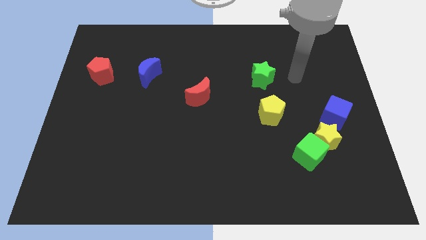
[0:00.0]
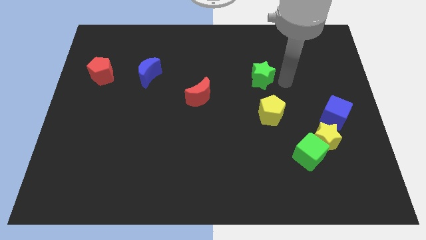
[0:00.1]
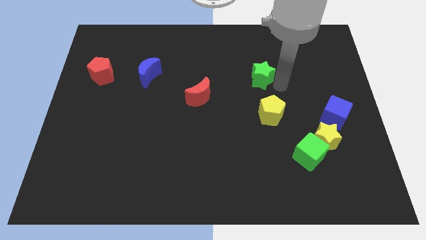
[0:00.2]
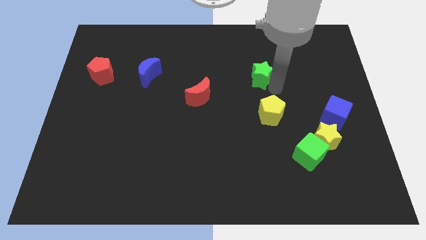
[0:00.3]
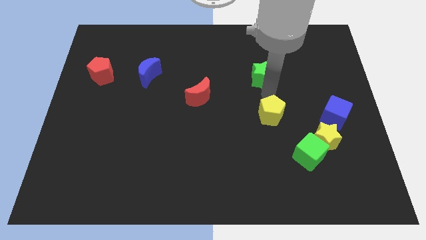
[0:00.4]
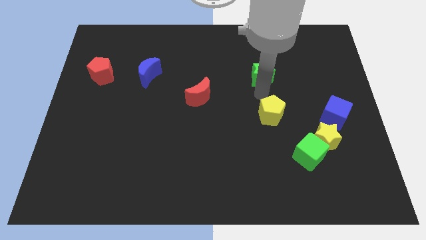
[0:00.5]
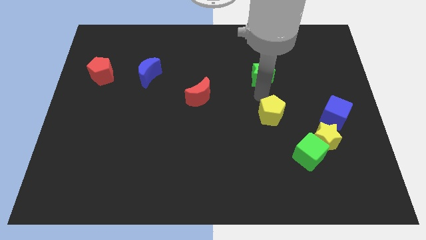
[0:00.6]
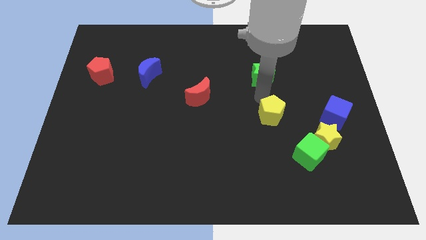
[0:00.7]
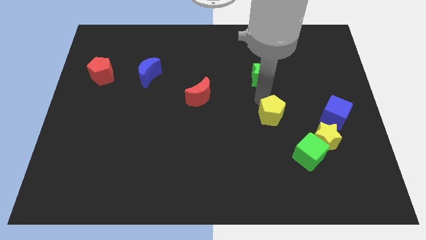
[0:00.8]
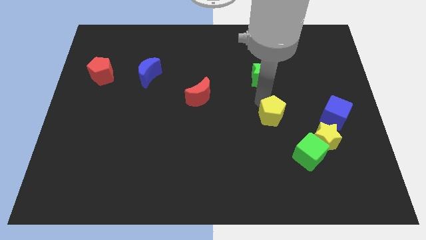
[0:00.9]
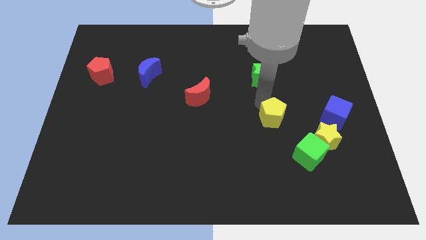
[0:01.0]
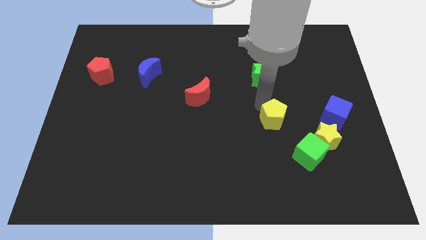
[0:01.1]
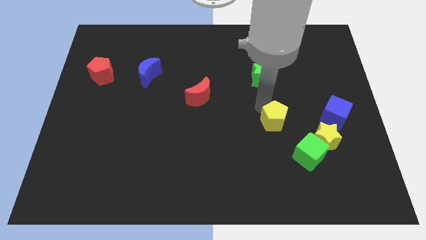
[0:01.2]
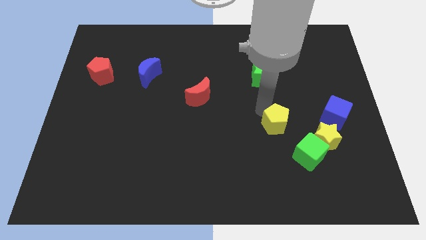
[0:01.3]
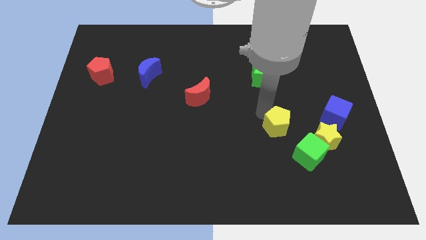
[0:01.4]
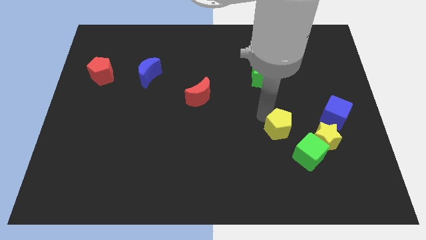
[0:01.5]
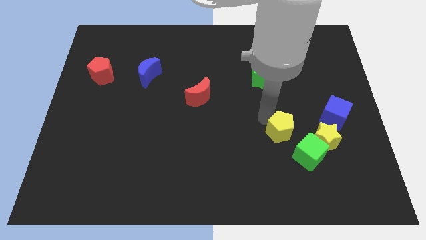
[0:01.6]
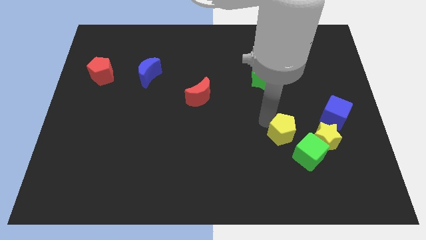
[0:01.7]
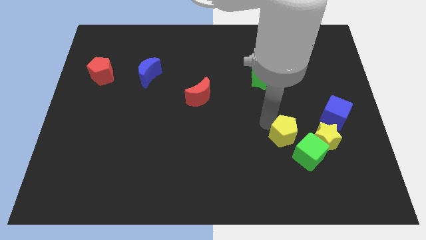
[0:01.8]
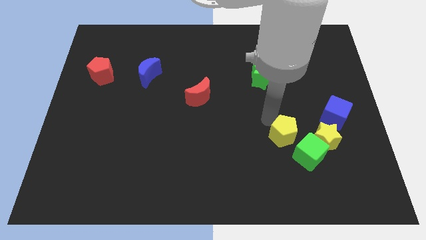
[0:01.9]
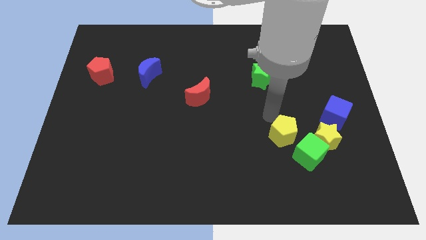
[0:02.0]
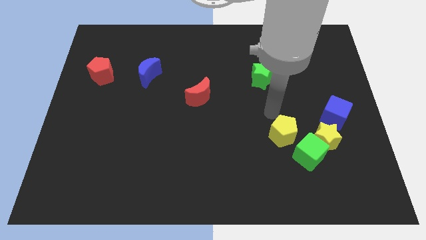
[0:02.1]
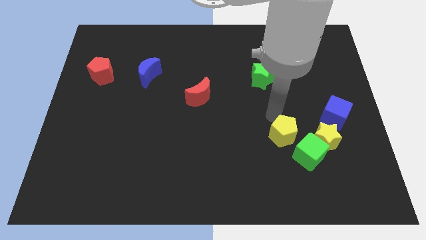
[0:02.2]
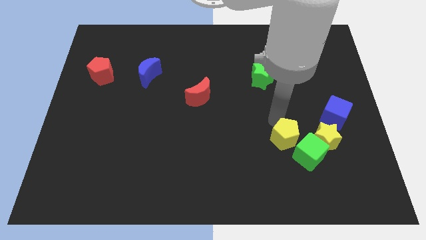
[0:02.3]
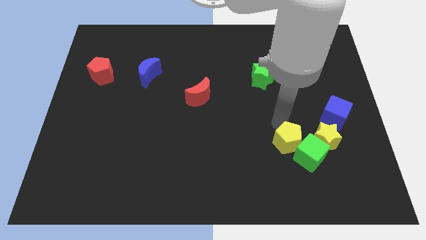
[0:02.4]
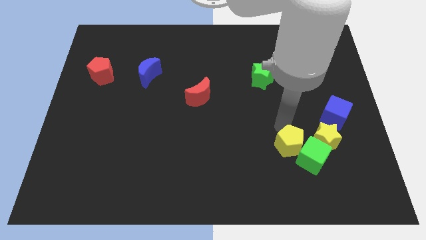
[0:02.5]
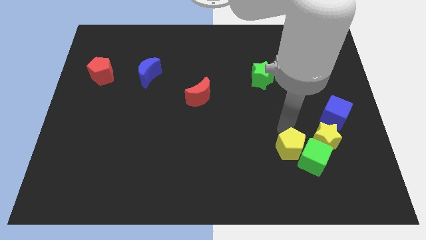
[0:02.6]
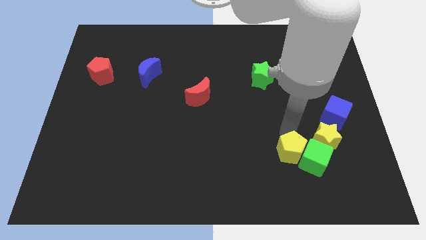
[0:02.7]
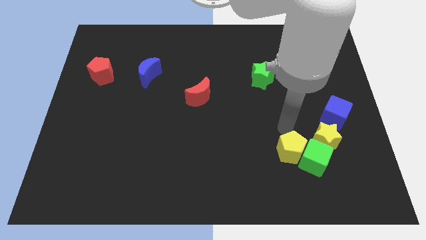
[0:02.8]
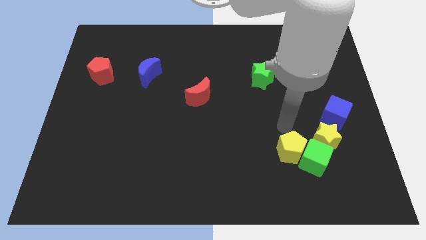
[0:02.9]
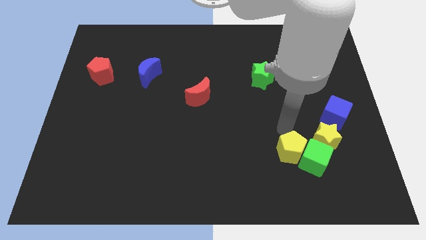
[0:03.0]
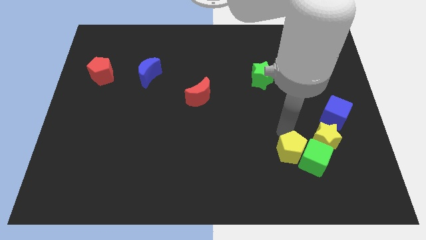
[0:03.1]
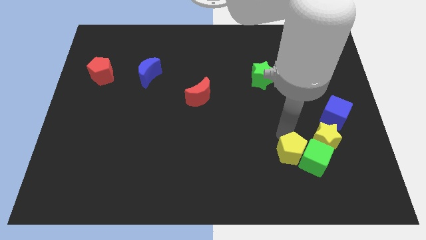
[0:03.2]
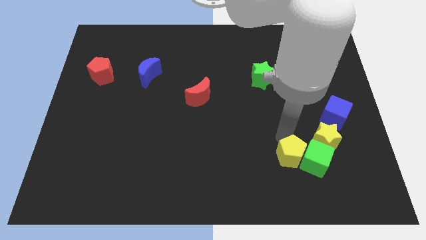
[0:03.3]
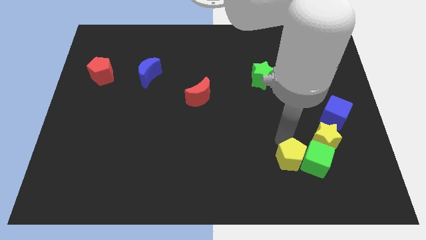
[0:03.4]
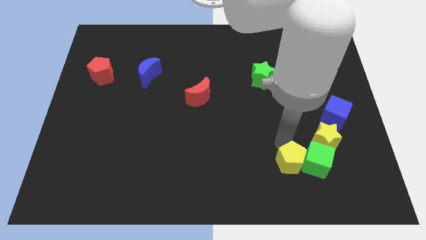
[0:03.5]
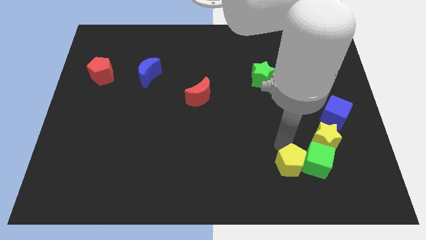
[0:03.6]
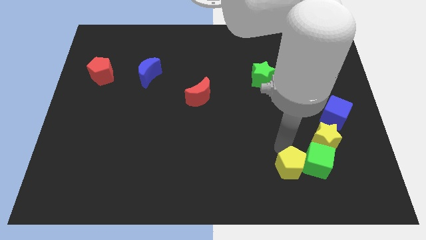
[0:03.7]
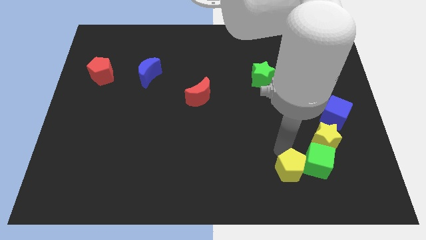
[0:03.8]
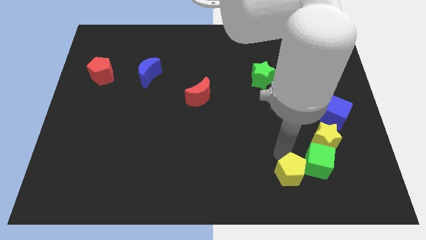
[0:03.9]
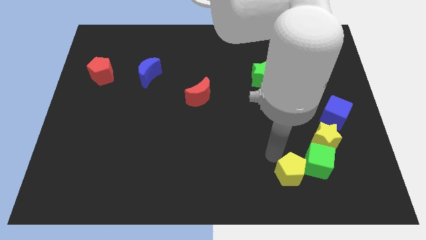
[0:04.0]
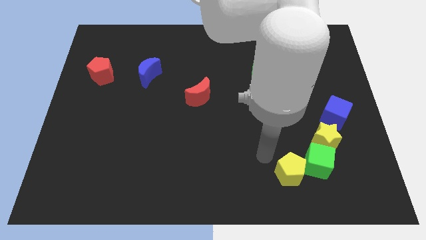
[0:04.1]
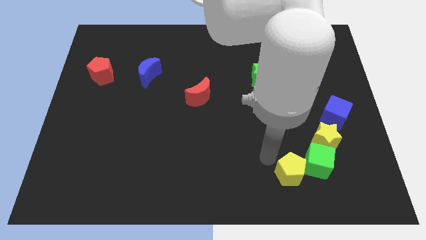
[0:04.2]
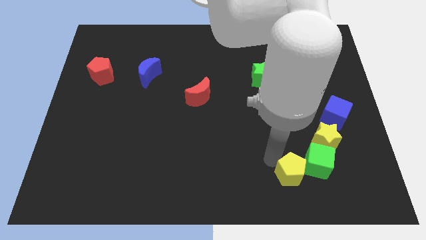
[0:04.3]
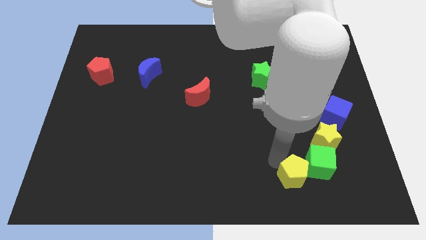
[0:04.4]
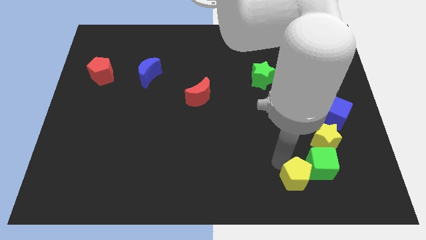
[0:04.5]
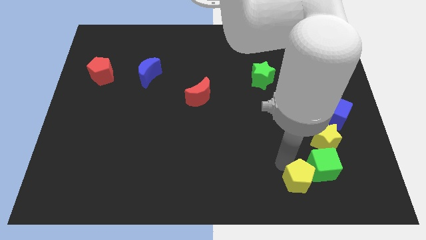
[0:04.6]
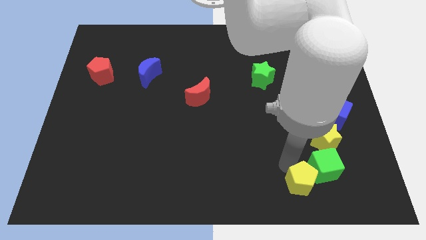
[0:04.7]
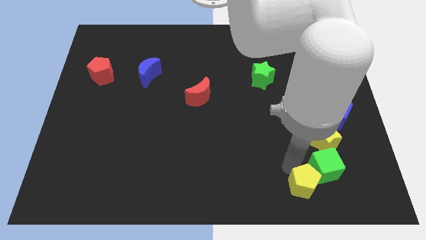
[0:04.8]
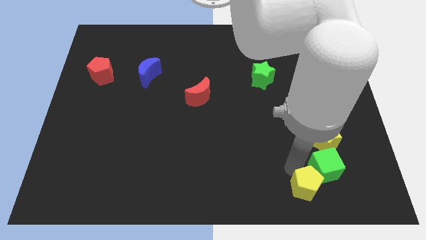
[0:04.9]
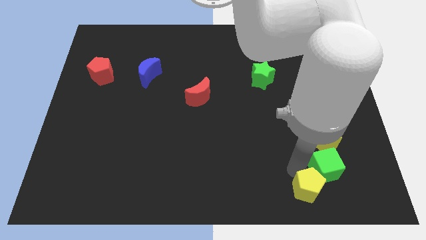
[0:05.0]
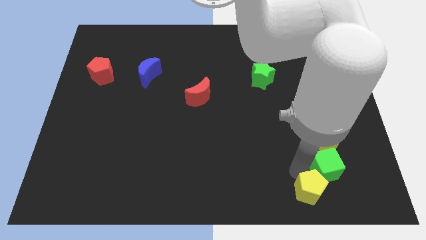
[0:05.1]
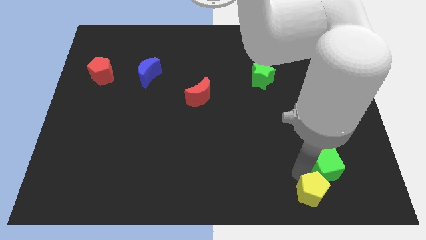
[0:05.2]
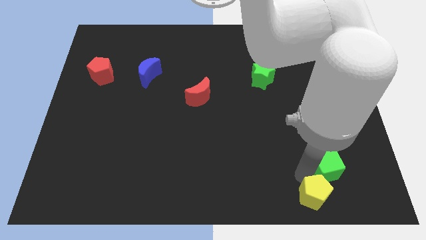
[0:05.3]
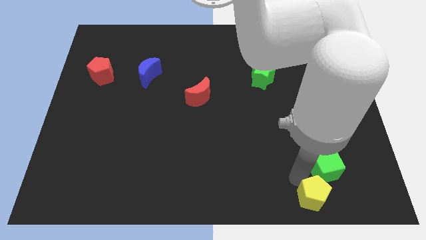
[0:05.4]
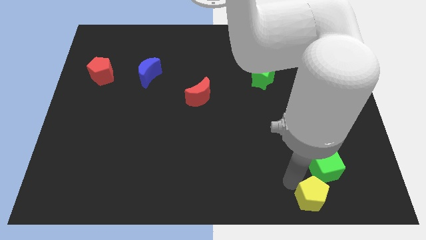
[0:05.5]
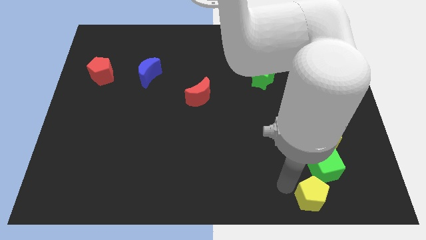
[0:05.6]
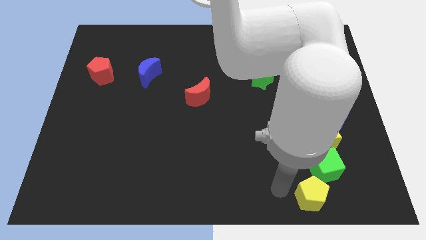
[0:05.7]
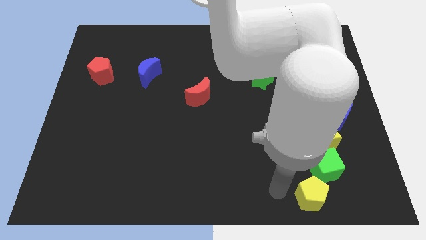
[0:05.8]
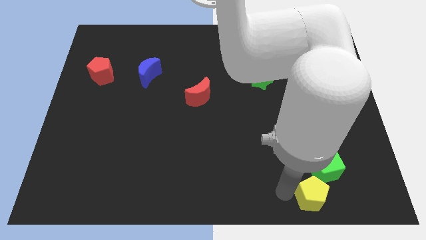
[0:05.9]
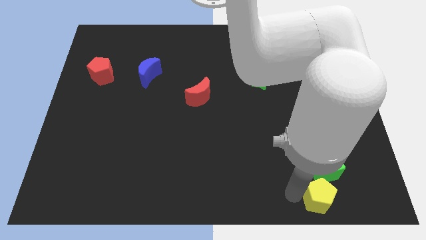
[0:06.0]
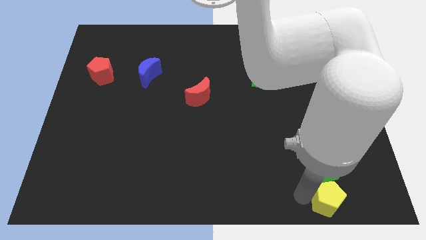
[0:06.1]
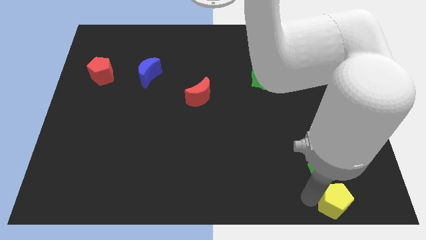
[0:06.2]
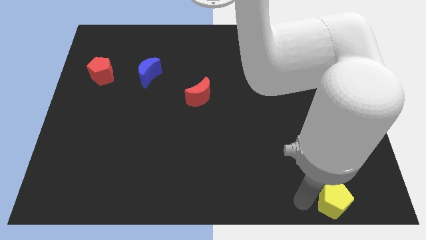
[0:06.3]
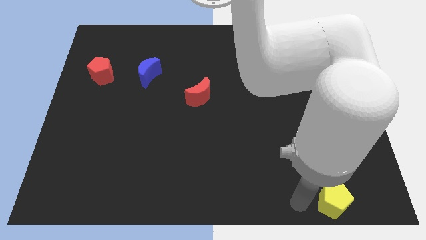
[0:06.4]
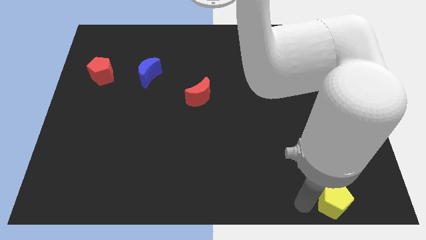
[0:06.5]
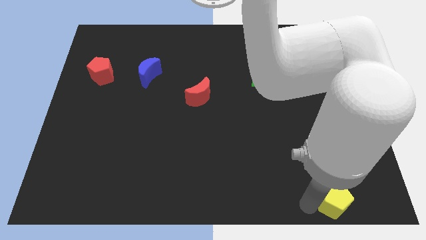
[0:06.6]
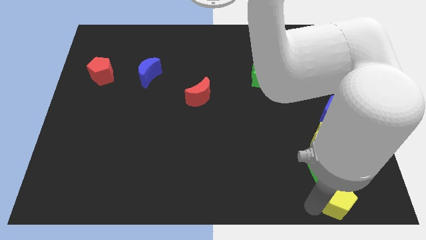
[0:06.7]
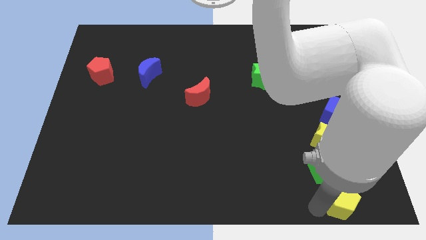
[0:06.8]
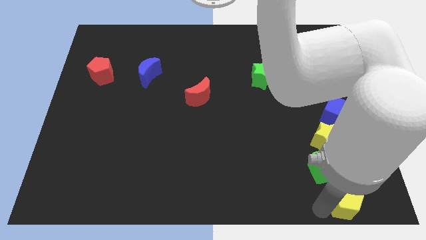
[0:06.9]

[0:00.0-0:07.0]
put the yellow pentagon to the bottom right
